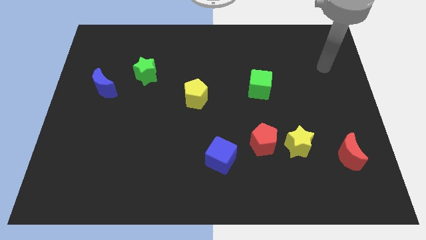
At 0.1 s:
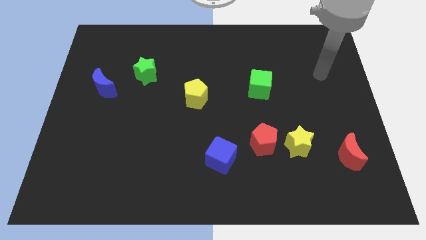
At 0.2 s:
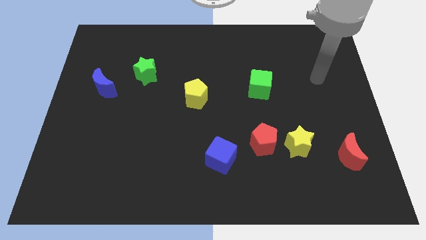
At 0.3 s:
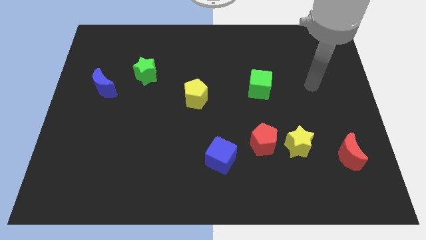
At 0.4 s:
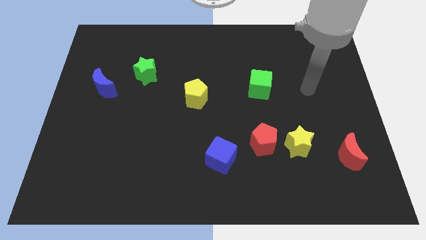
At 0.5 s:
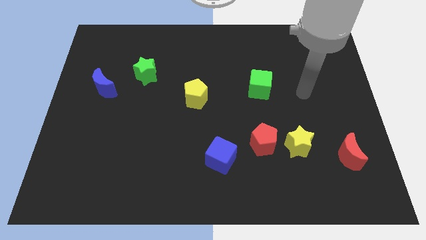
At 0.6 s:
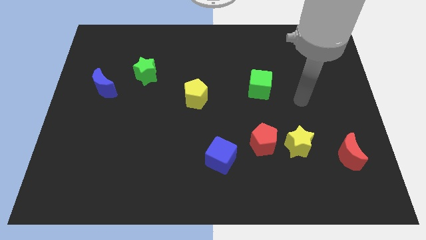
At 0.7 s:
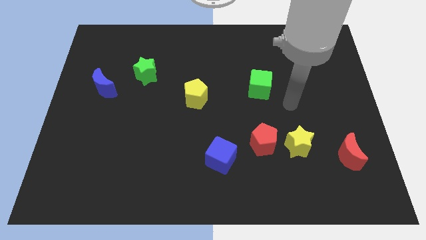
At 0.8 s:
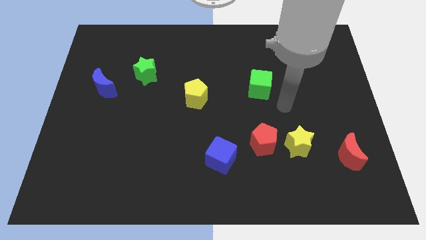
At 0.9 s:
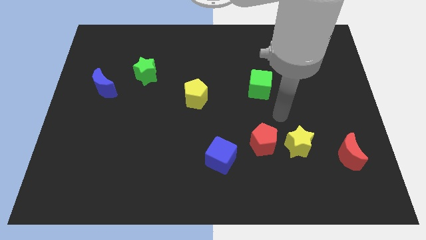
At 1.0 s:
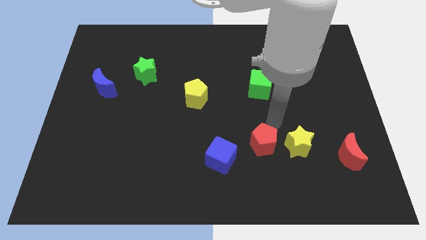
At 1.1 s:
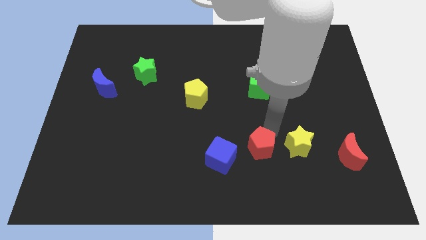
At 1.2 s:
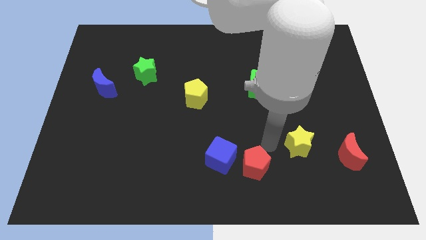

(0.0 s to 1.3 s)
separate the yellow star from the red pentagon

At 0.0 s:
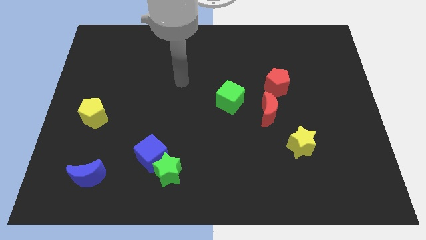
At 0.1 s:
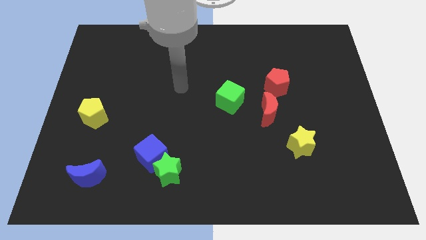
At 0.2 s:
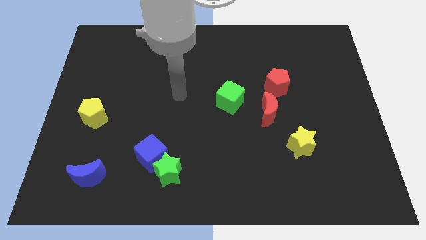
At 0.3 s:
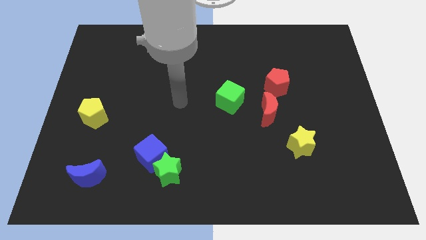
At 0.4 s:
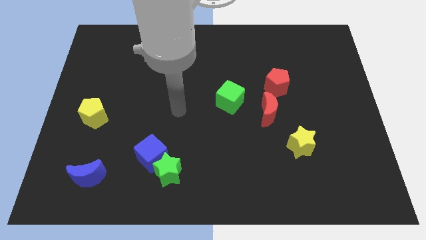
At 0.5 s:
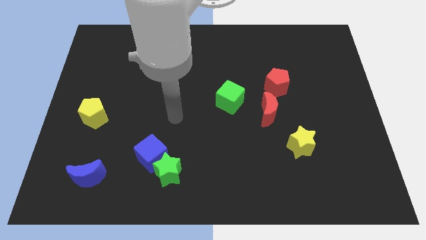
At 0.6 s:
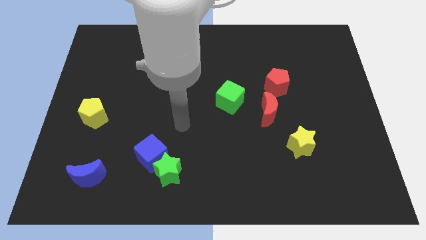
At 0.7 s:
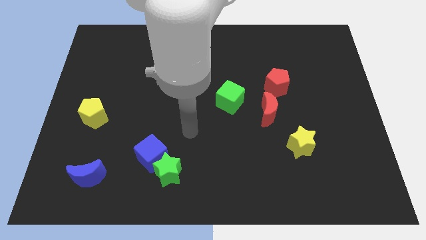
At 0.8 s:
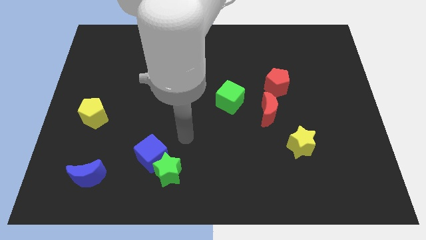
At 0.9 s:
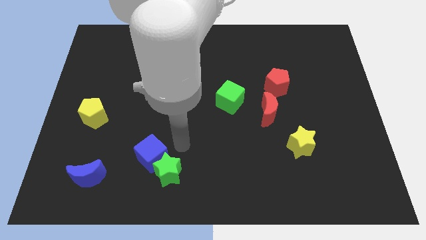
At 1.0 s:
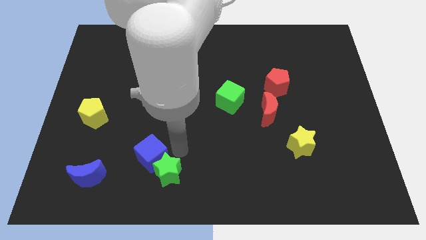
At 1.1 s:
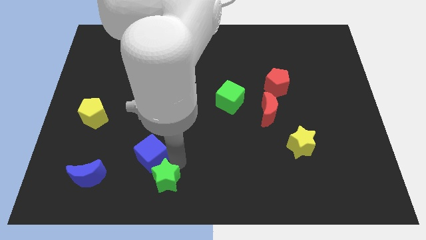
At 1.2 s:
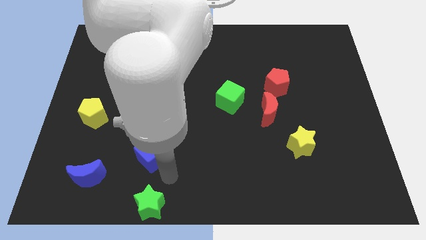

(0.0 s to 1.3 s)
pull the blue cube apart from the green star

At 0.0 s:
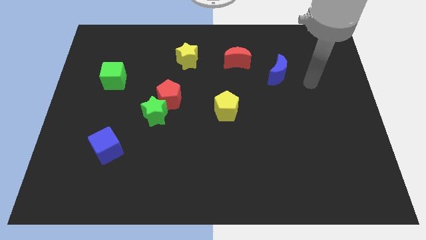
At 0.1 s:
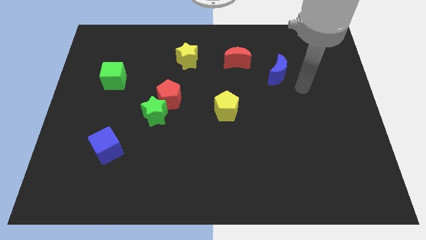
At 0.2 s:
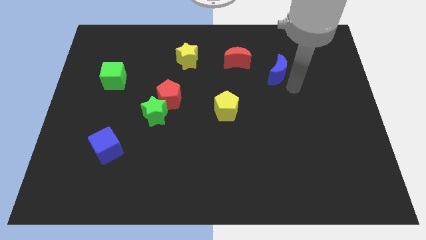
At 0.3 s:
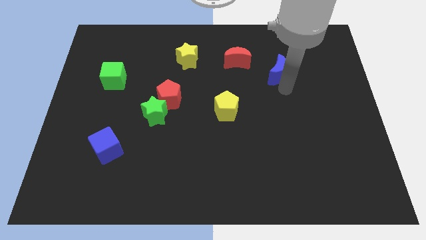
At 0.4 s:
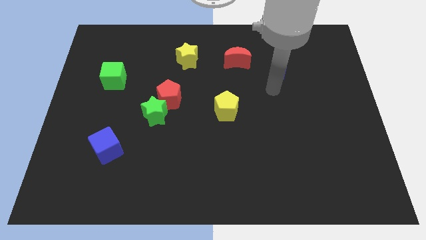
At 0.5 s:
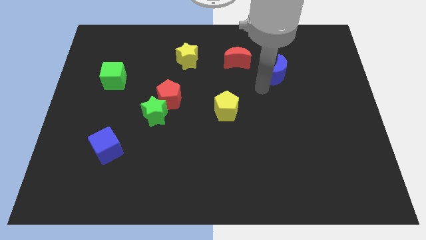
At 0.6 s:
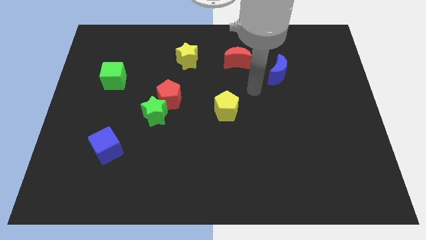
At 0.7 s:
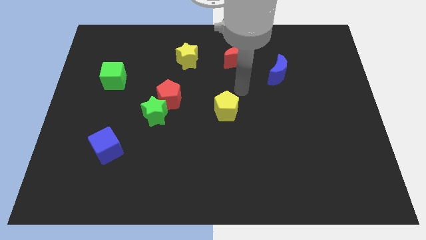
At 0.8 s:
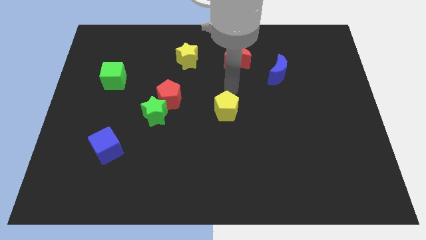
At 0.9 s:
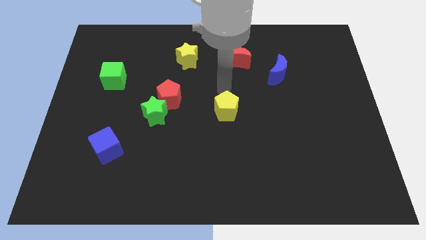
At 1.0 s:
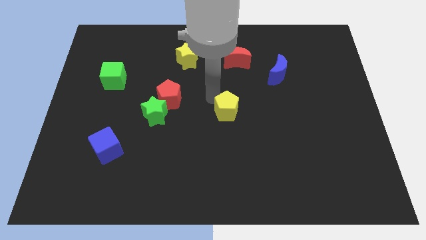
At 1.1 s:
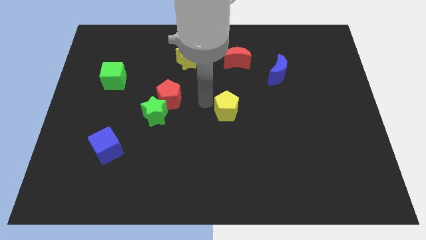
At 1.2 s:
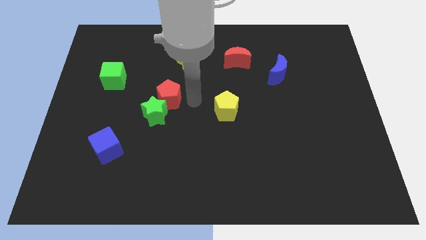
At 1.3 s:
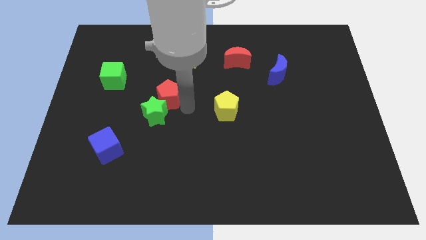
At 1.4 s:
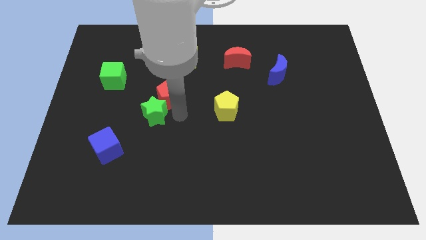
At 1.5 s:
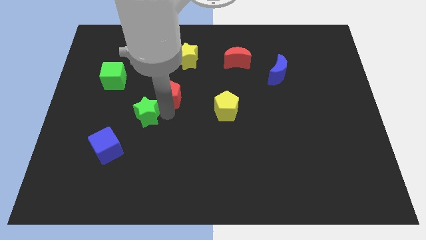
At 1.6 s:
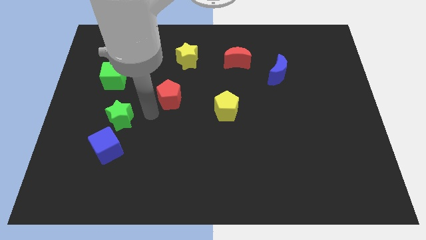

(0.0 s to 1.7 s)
pull the red pentagon apart from the green star

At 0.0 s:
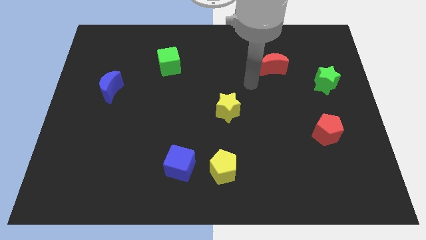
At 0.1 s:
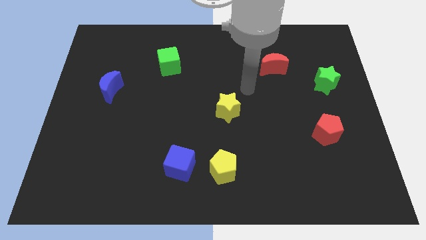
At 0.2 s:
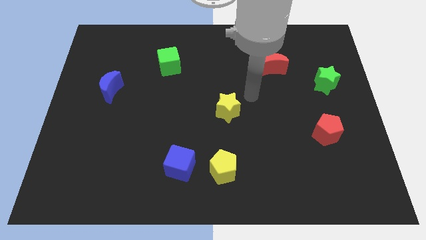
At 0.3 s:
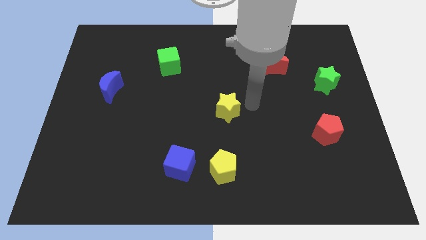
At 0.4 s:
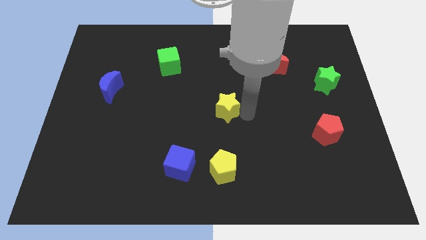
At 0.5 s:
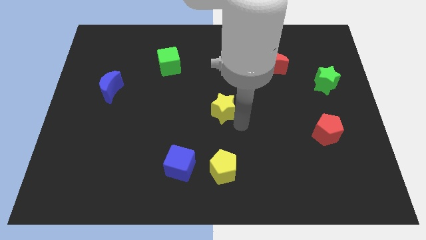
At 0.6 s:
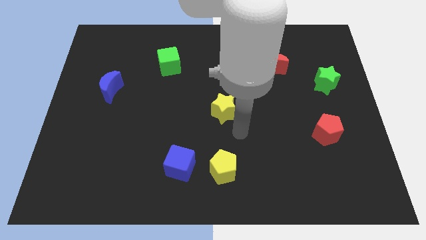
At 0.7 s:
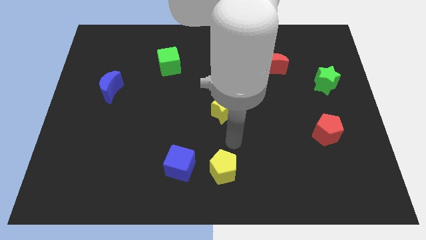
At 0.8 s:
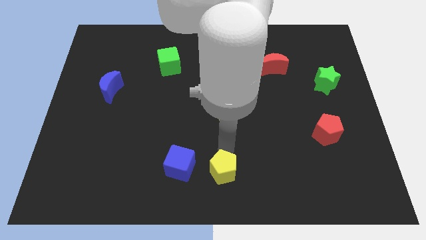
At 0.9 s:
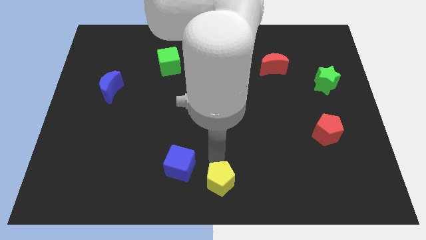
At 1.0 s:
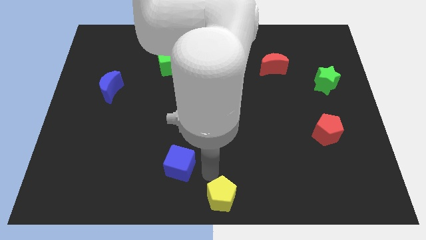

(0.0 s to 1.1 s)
pull the blue cube apart from the yellow pentagon

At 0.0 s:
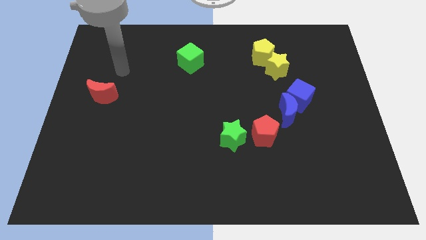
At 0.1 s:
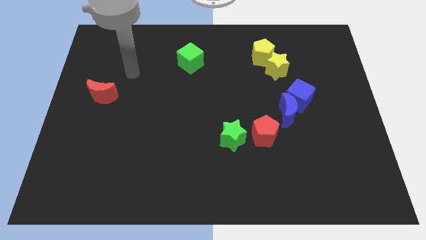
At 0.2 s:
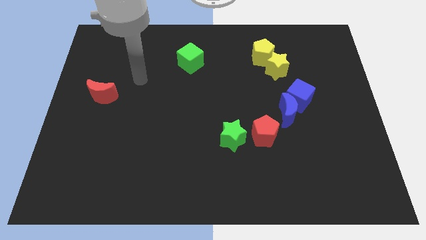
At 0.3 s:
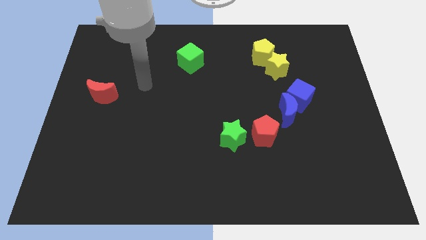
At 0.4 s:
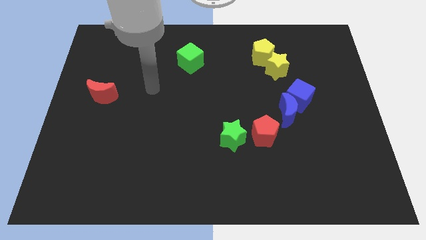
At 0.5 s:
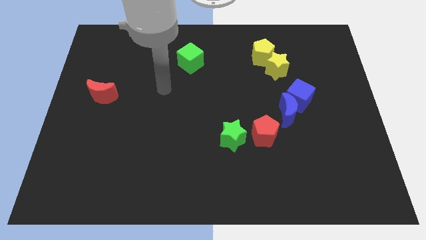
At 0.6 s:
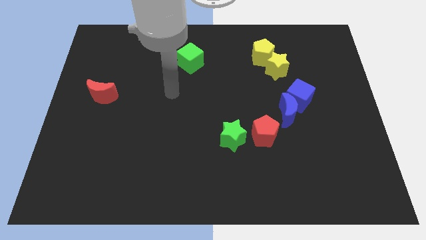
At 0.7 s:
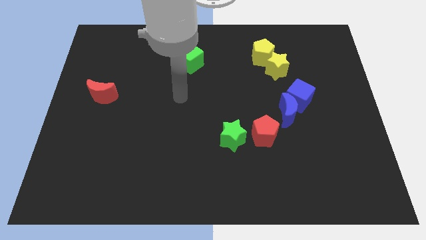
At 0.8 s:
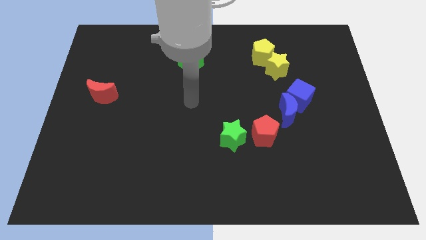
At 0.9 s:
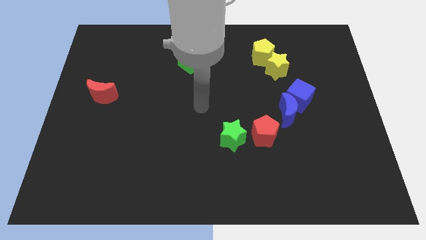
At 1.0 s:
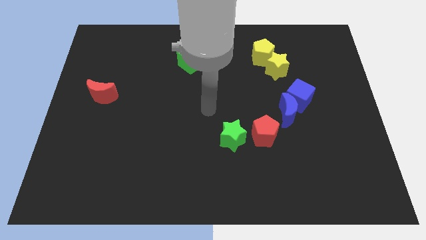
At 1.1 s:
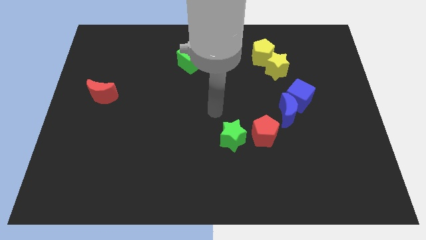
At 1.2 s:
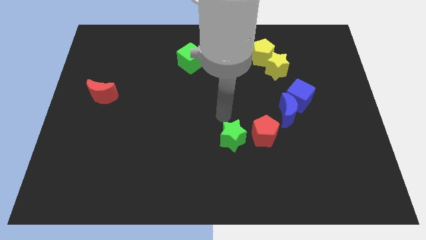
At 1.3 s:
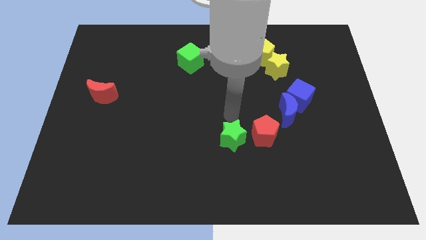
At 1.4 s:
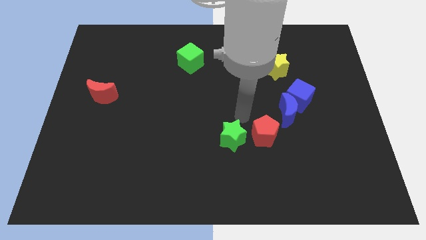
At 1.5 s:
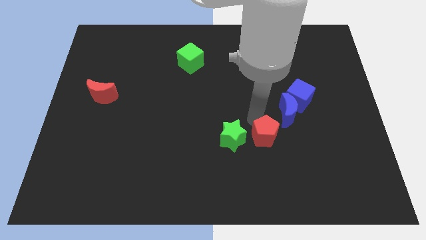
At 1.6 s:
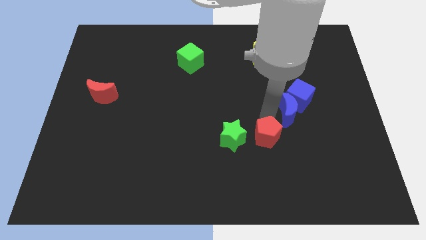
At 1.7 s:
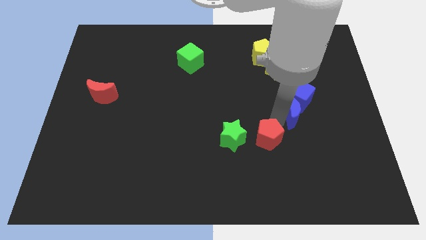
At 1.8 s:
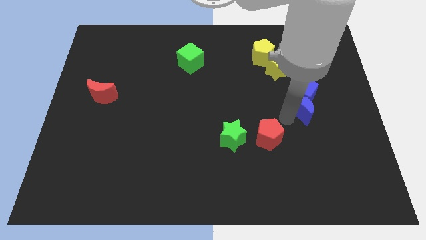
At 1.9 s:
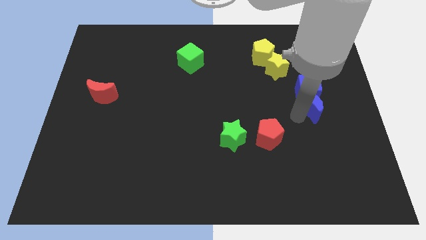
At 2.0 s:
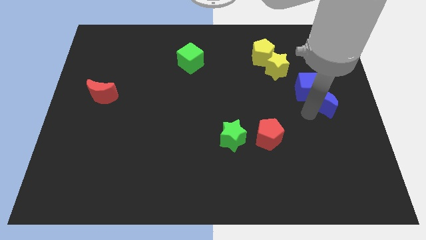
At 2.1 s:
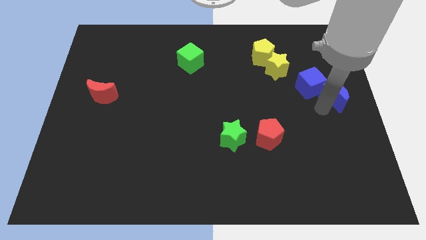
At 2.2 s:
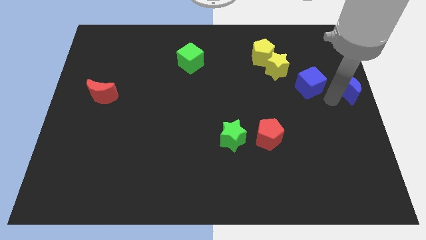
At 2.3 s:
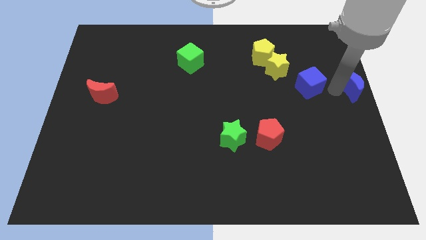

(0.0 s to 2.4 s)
separate the blue cube from the blue moon

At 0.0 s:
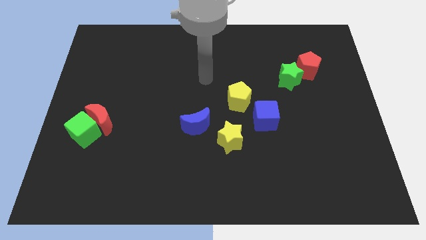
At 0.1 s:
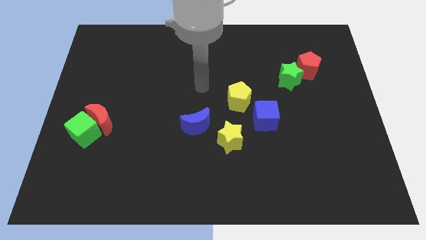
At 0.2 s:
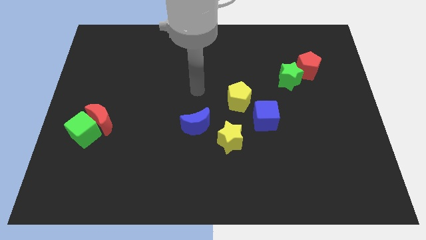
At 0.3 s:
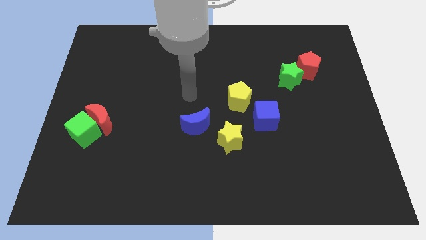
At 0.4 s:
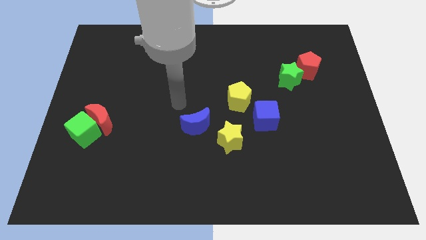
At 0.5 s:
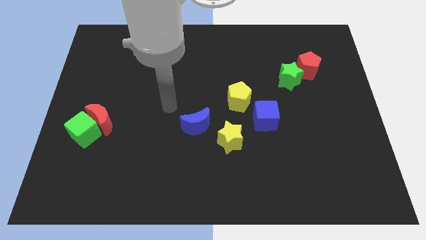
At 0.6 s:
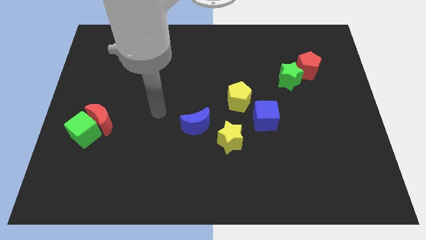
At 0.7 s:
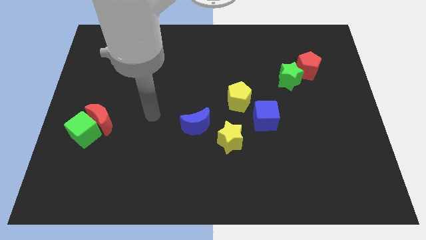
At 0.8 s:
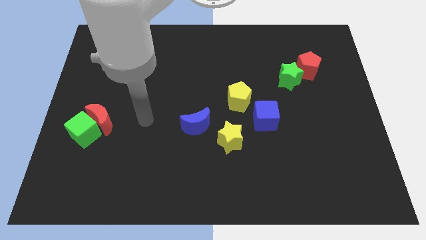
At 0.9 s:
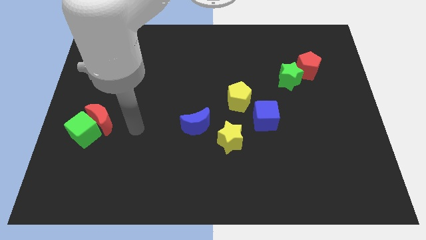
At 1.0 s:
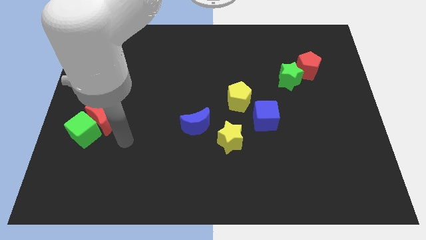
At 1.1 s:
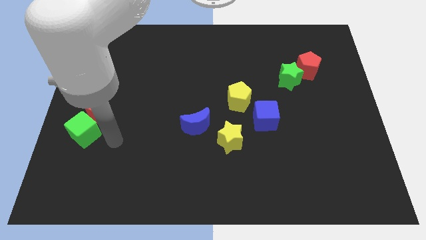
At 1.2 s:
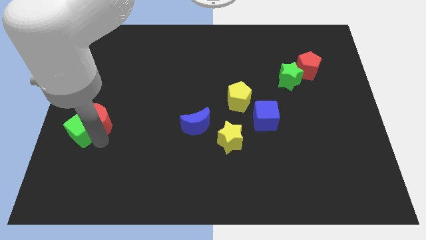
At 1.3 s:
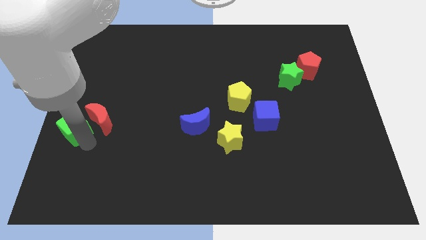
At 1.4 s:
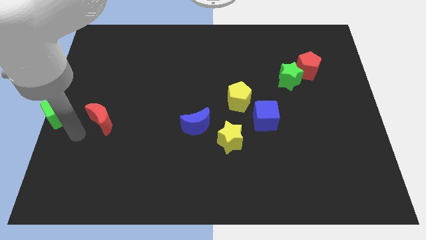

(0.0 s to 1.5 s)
pull the red moon apart from the green cube
